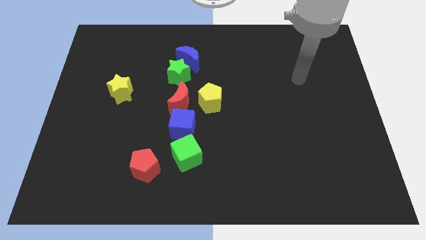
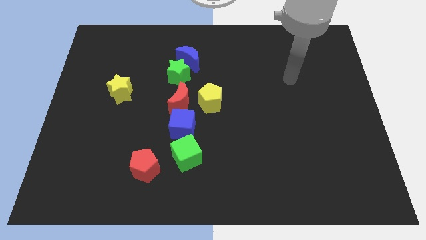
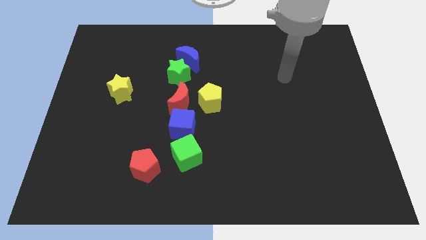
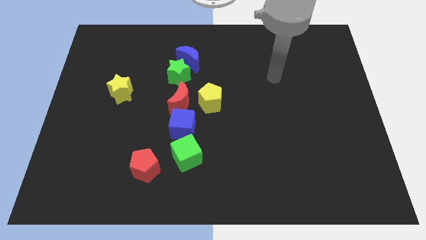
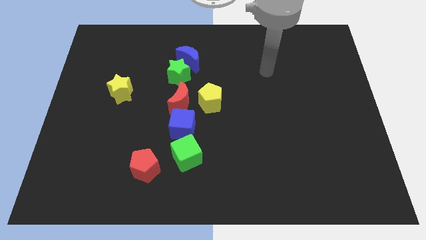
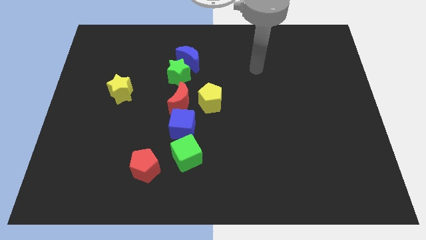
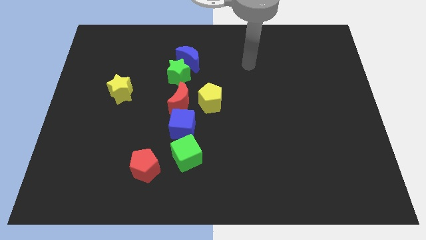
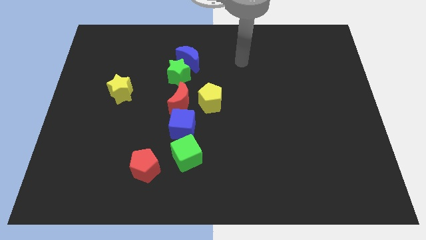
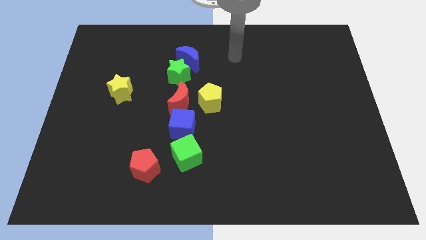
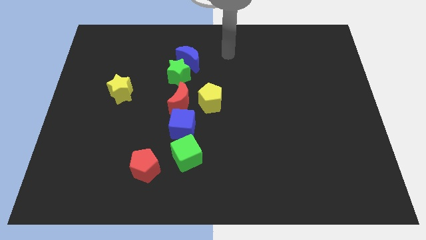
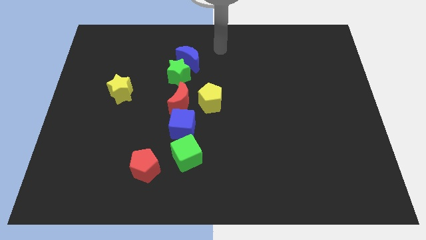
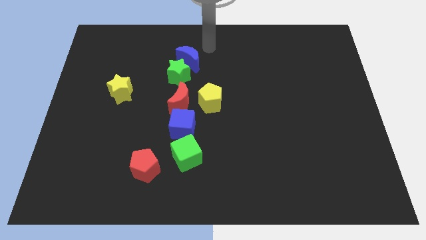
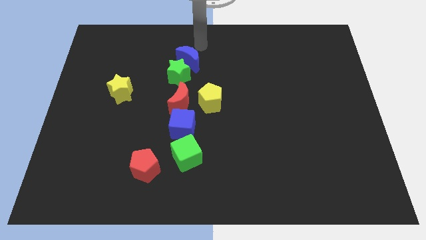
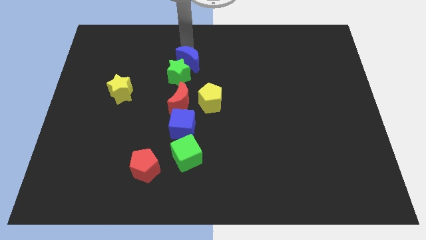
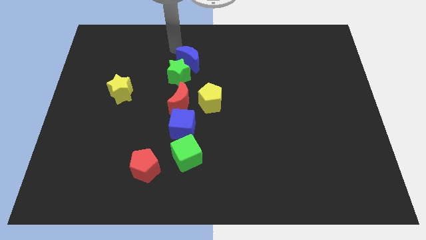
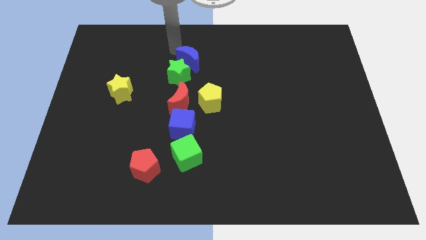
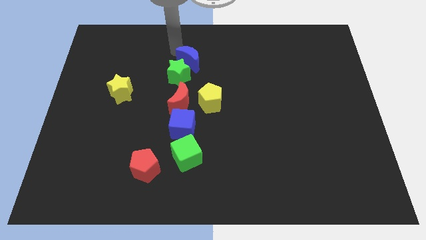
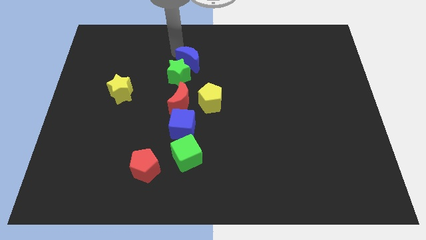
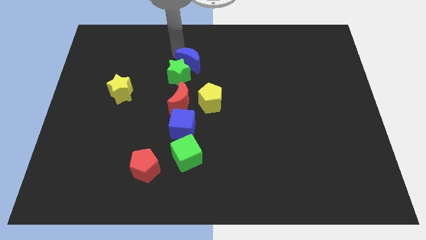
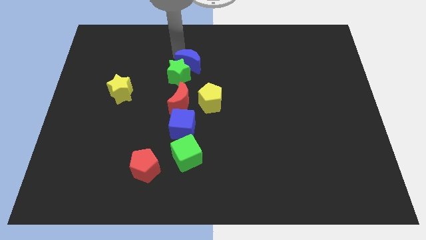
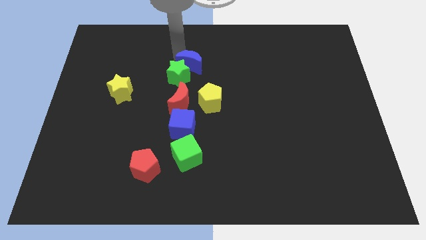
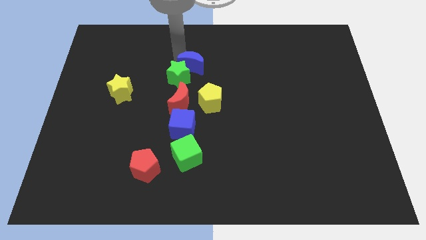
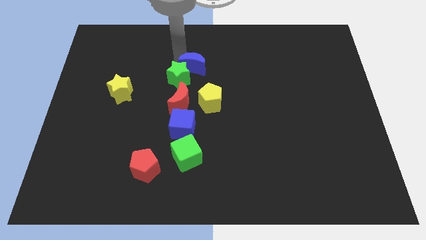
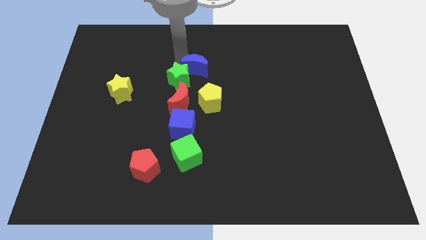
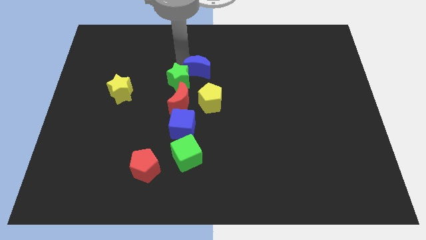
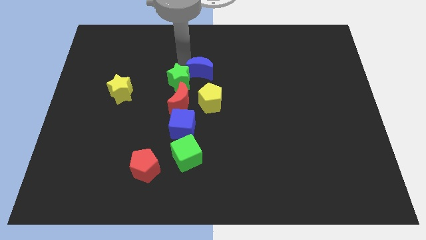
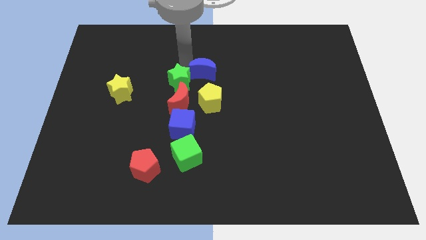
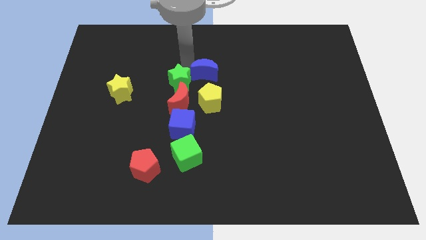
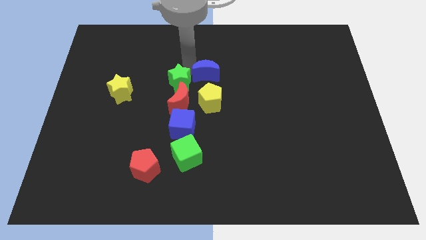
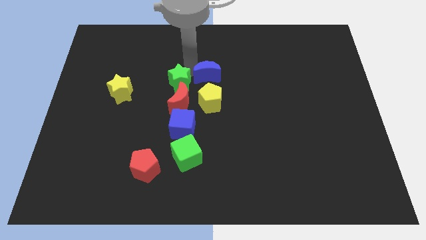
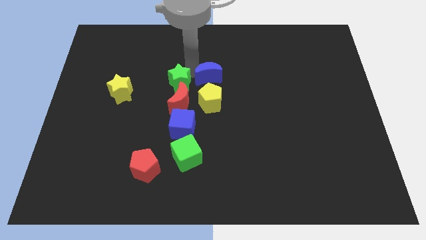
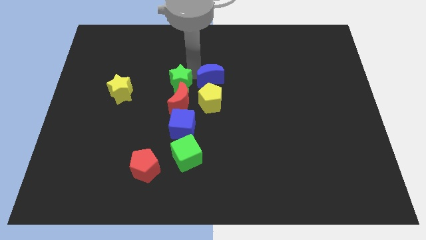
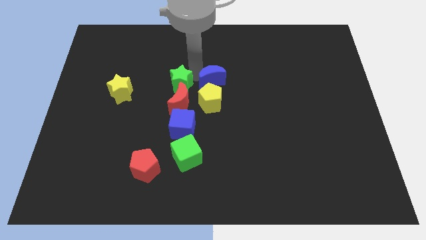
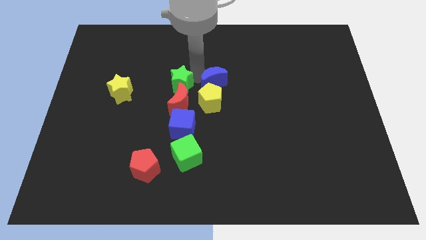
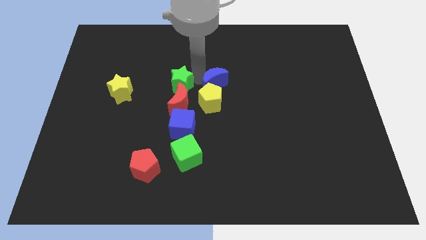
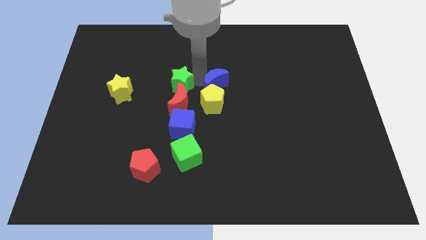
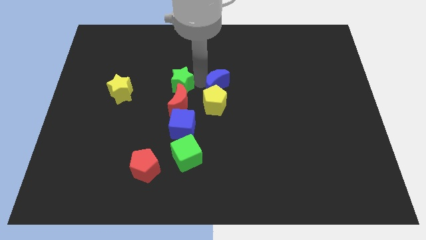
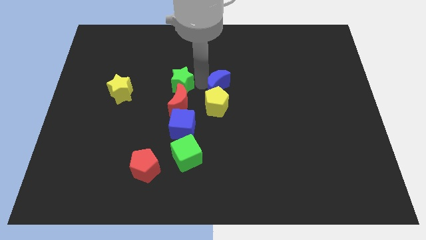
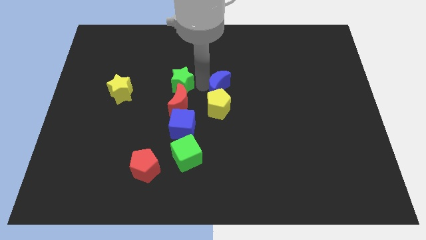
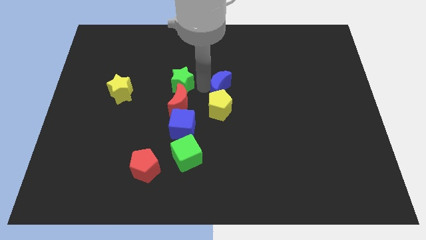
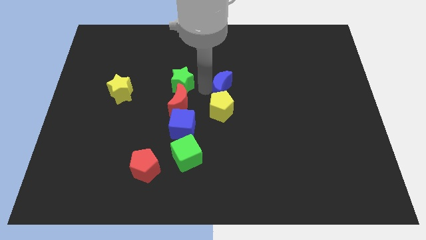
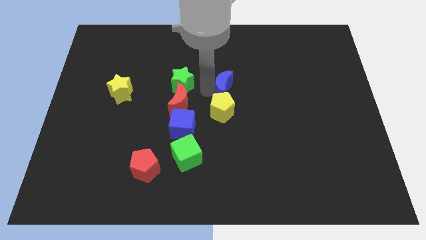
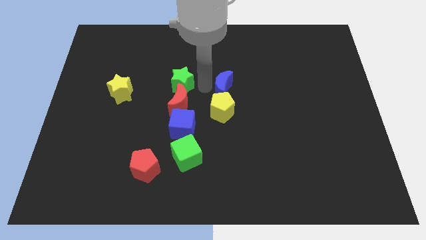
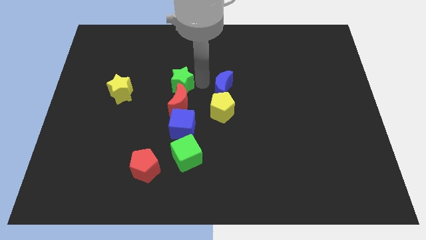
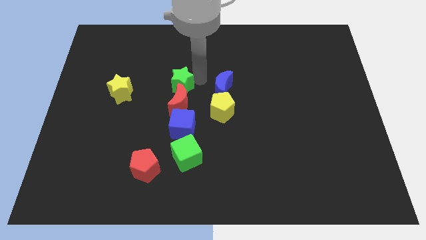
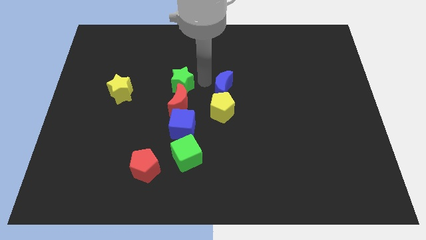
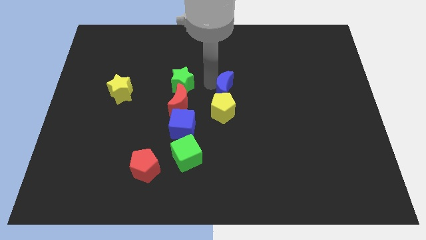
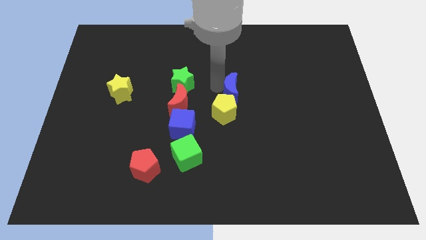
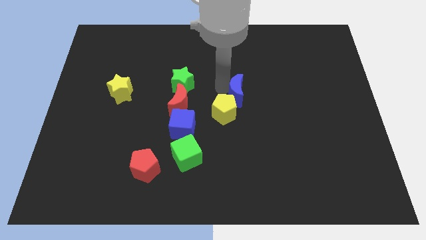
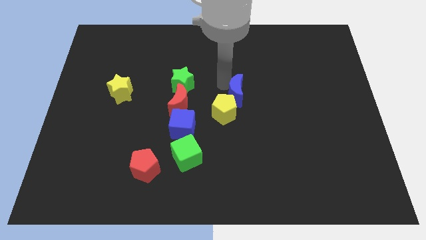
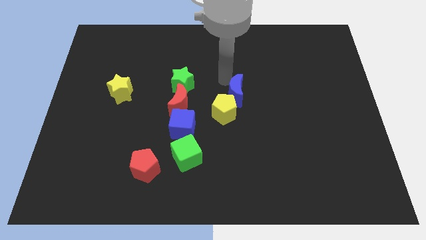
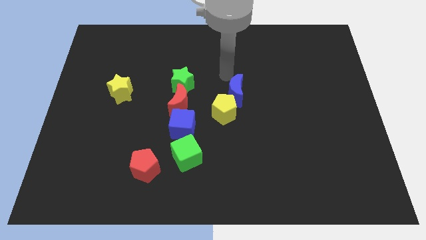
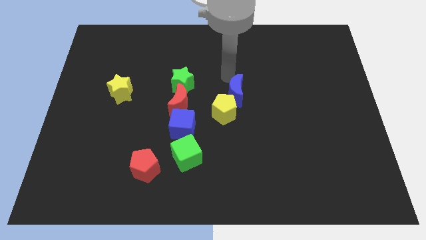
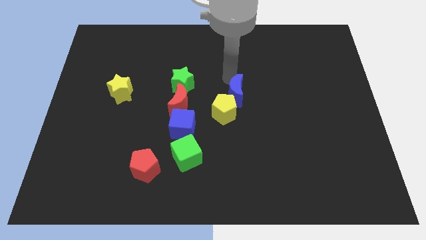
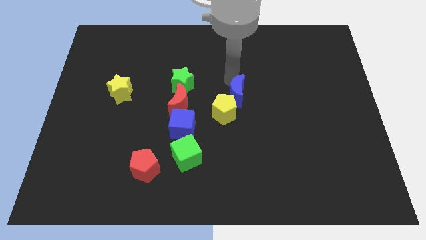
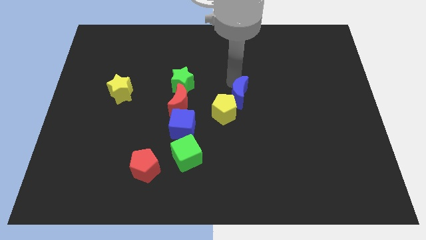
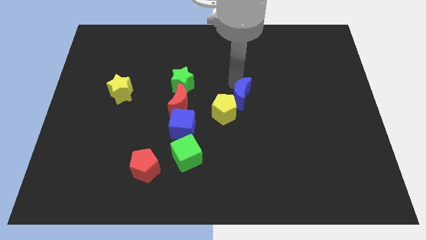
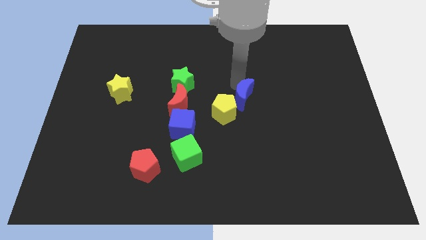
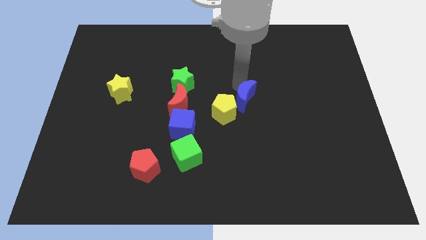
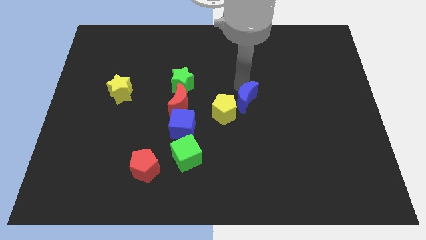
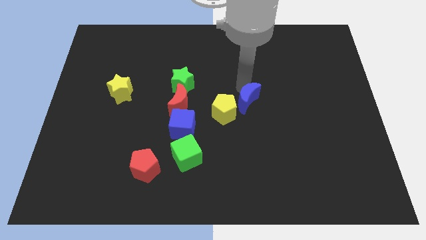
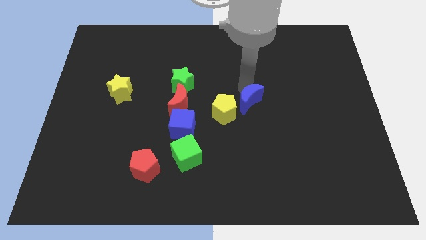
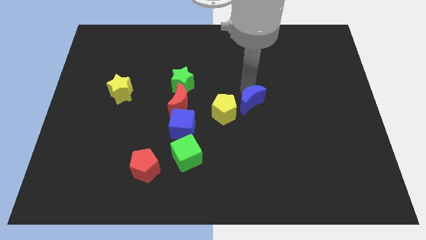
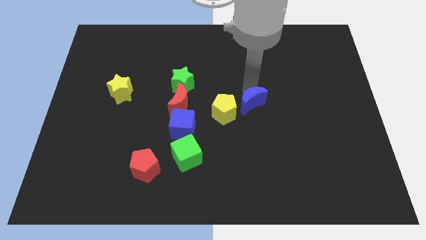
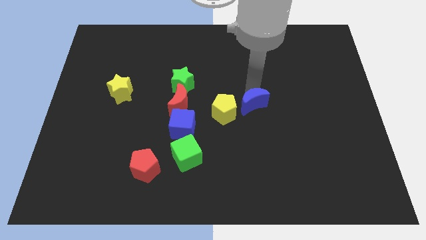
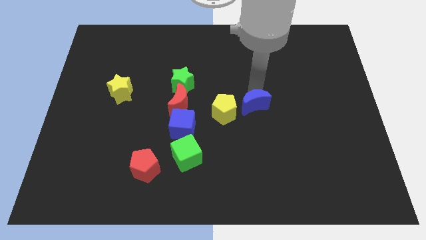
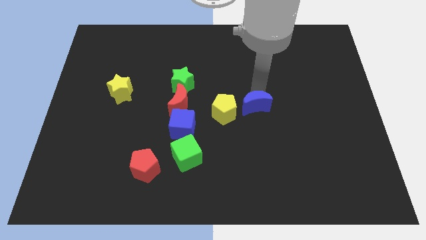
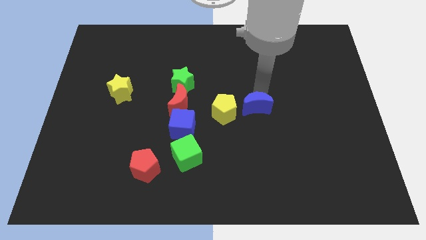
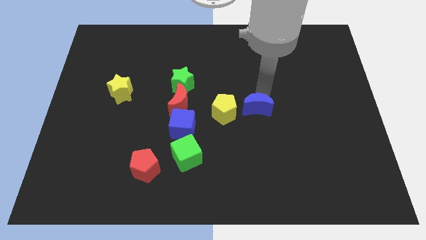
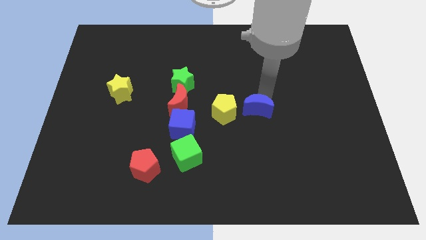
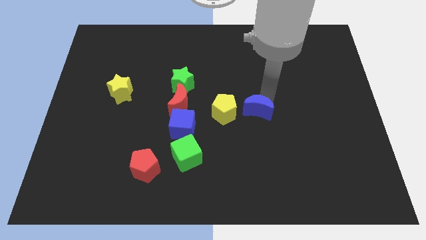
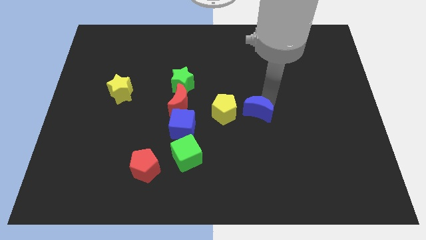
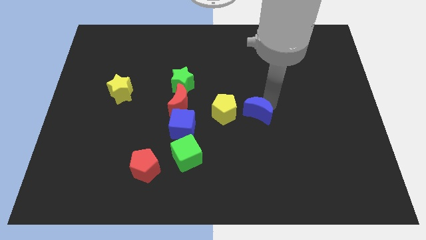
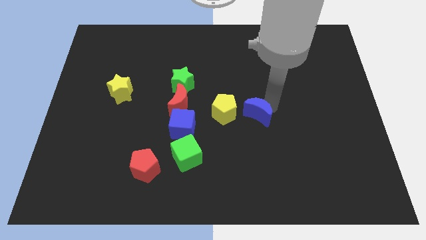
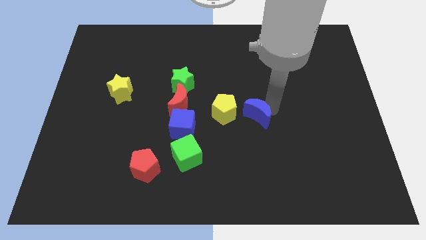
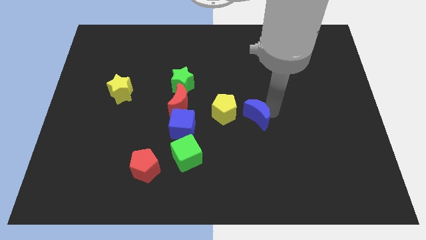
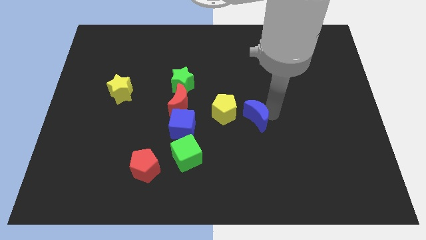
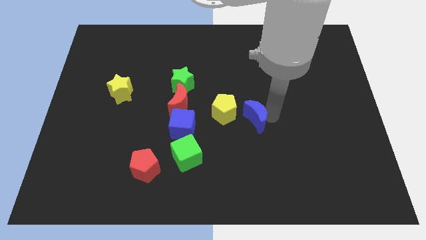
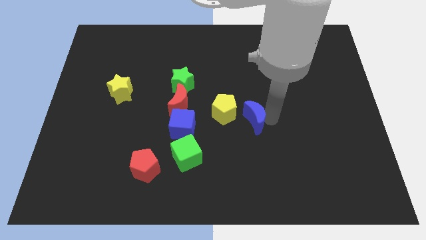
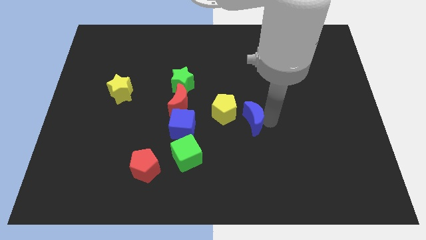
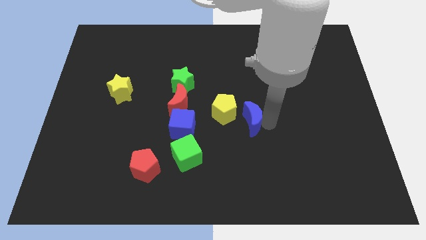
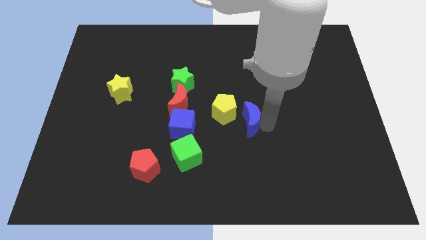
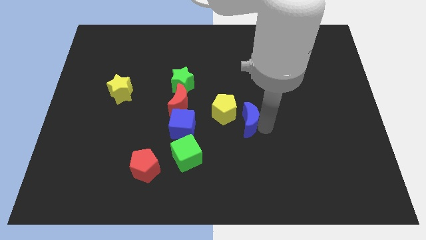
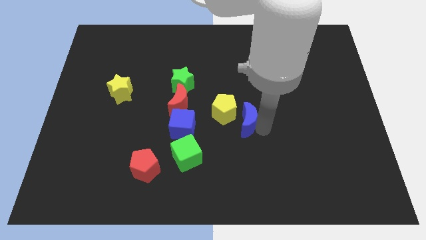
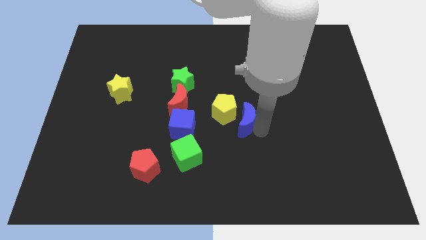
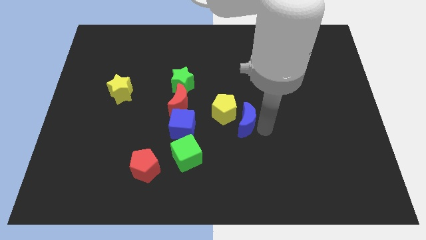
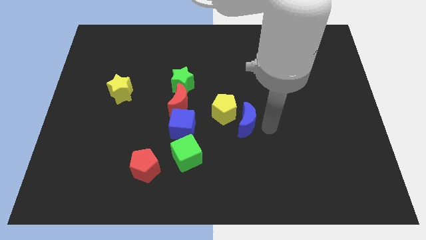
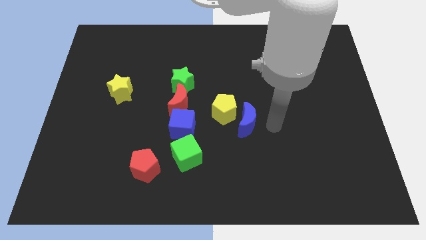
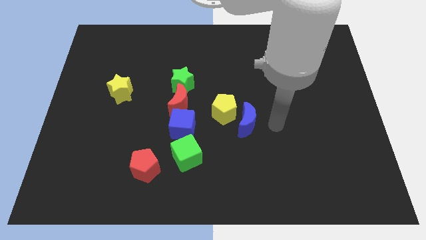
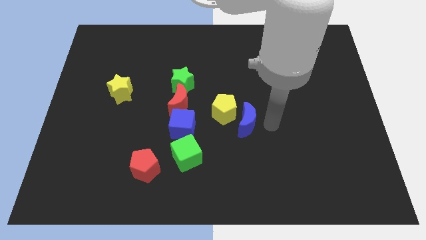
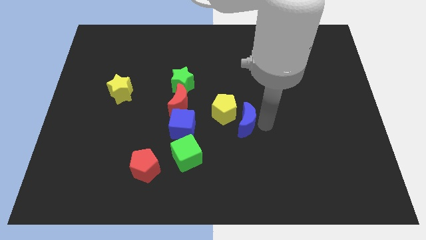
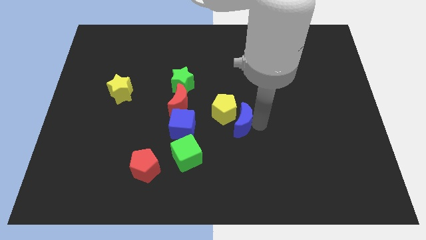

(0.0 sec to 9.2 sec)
put the blue moon to the bottom side of the yellow pentagon
